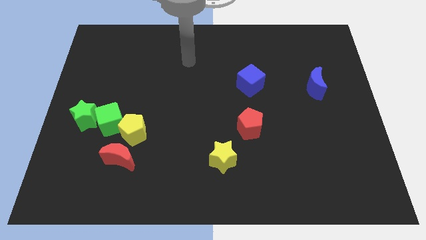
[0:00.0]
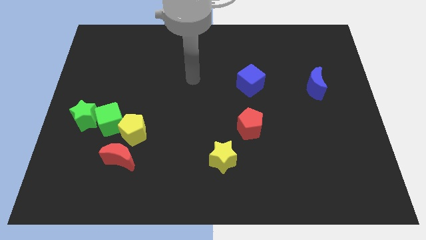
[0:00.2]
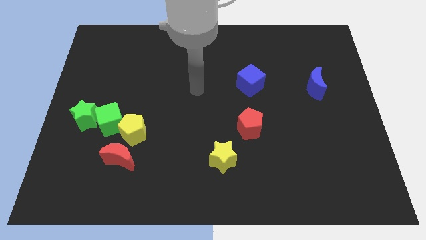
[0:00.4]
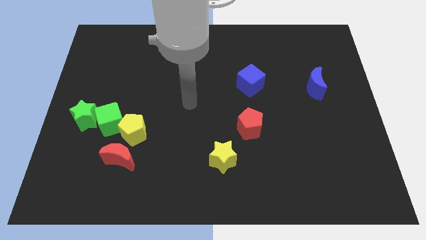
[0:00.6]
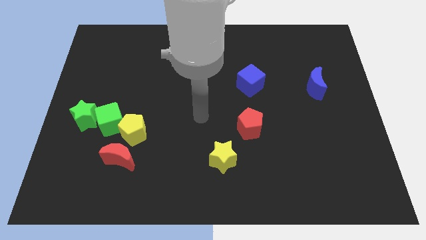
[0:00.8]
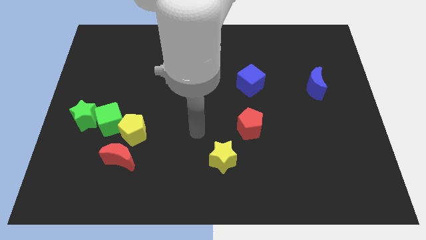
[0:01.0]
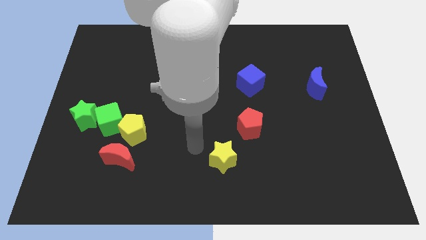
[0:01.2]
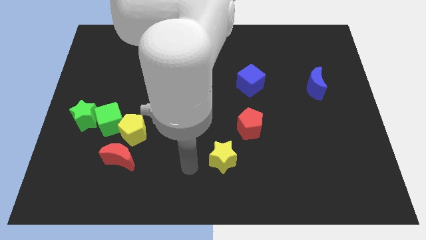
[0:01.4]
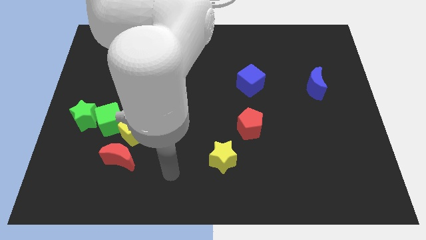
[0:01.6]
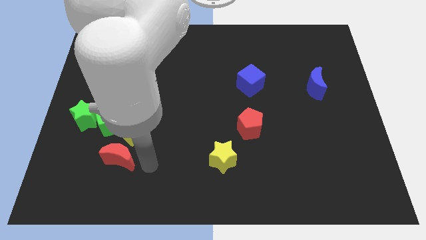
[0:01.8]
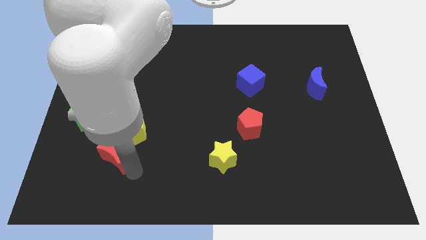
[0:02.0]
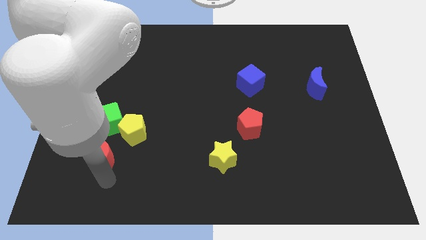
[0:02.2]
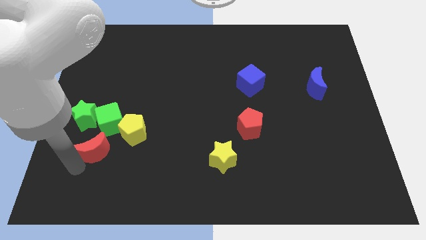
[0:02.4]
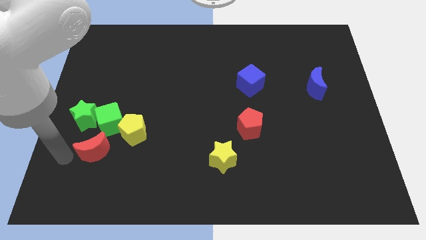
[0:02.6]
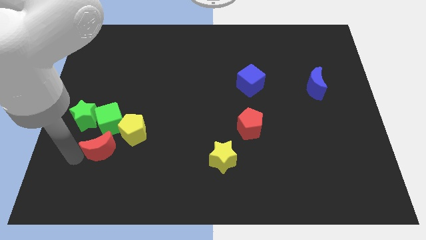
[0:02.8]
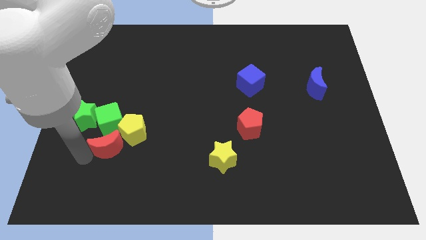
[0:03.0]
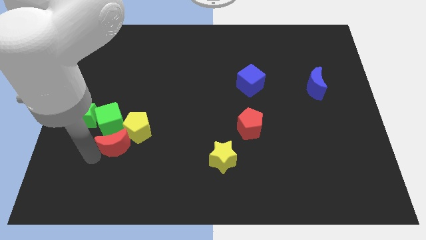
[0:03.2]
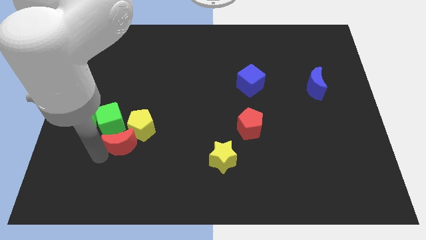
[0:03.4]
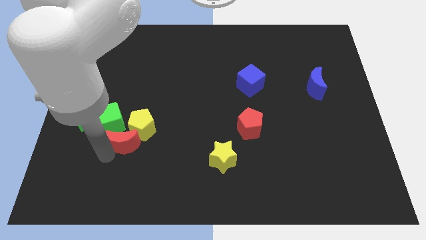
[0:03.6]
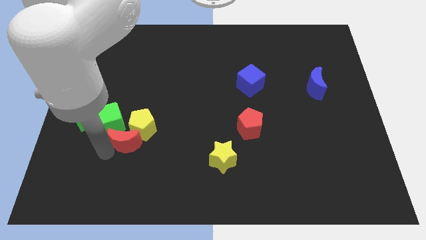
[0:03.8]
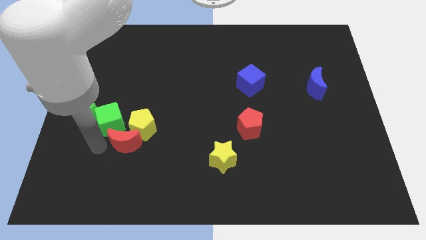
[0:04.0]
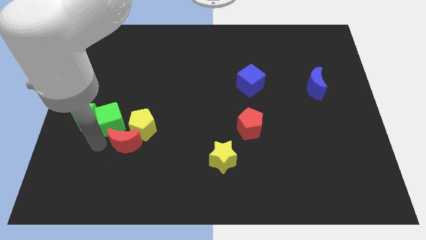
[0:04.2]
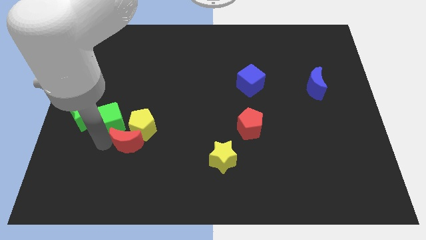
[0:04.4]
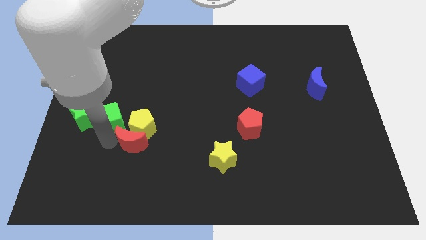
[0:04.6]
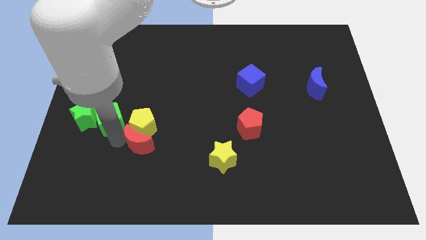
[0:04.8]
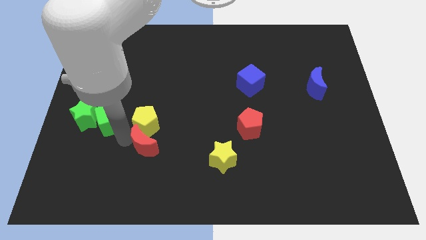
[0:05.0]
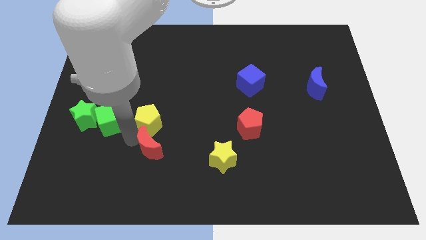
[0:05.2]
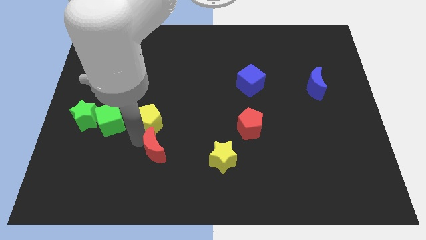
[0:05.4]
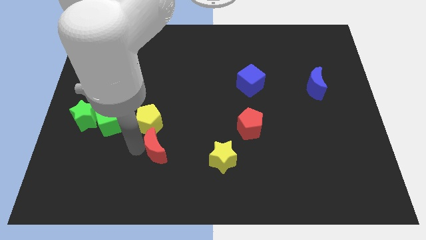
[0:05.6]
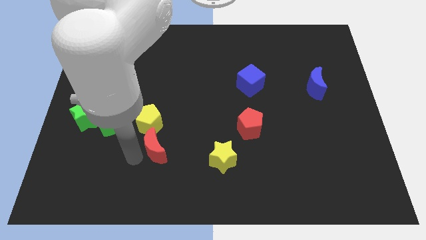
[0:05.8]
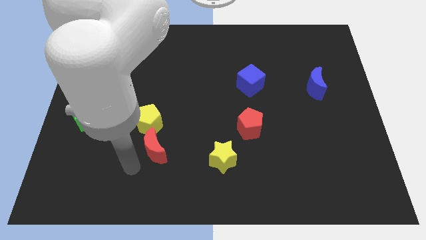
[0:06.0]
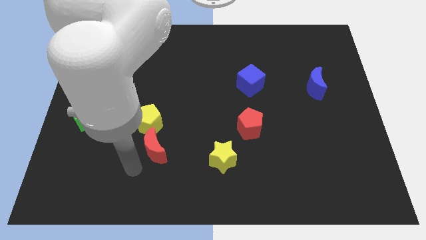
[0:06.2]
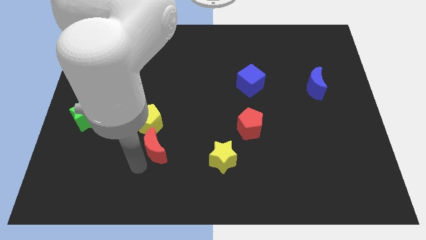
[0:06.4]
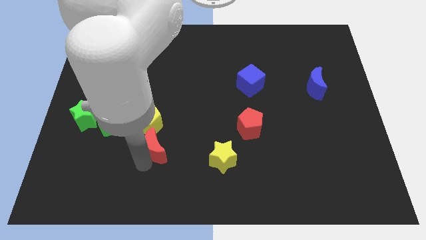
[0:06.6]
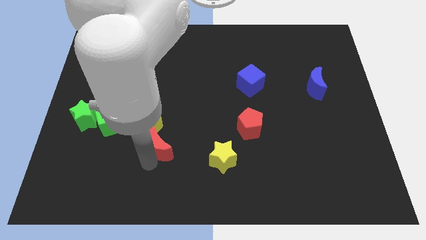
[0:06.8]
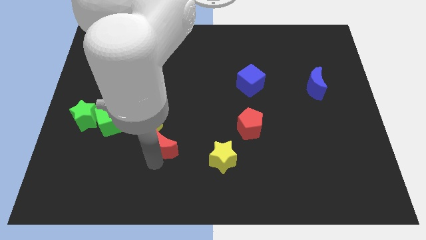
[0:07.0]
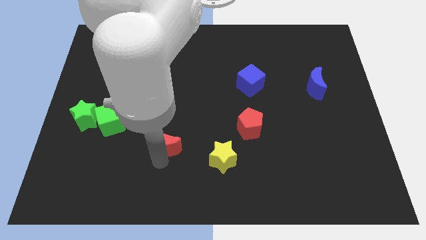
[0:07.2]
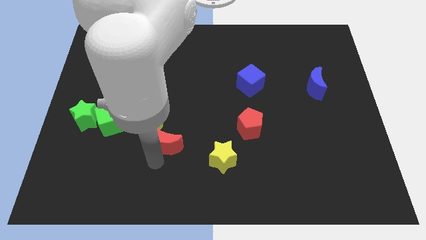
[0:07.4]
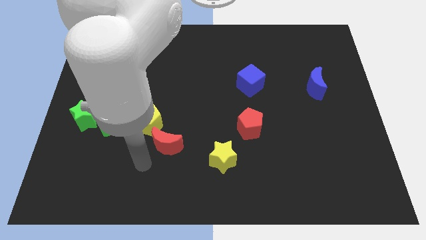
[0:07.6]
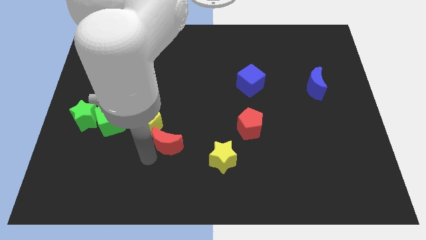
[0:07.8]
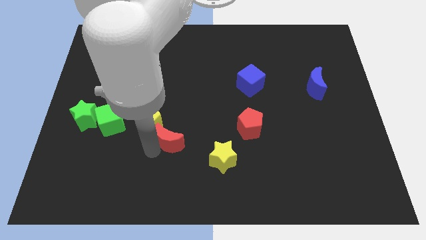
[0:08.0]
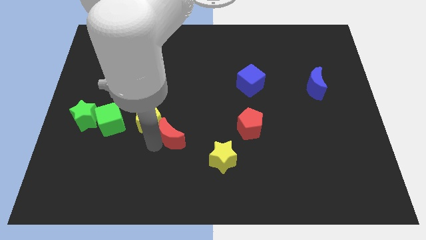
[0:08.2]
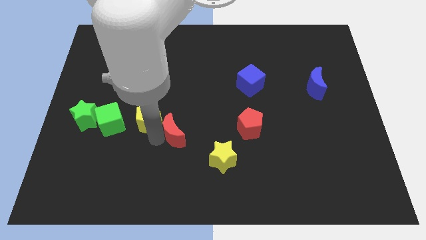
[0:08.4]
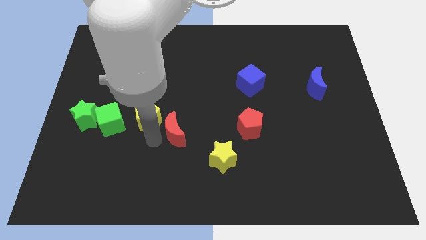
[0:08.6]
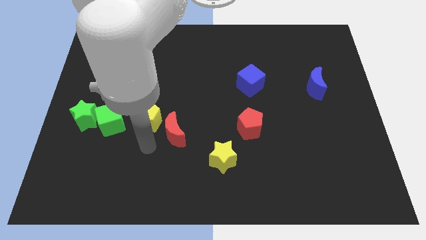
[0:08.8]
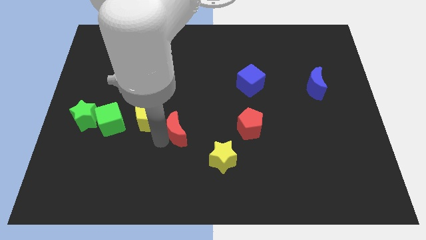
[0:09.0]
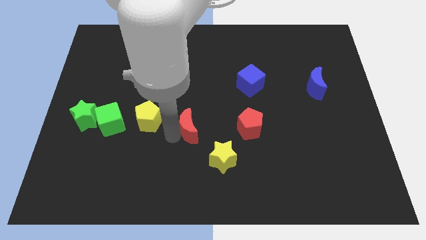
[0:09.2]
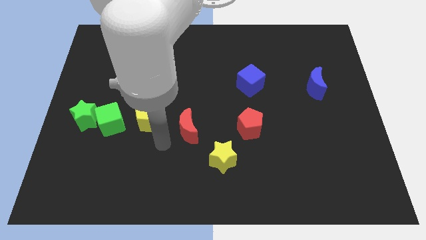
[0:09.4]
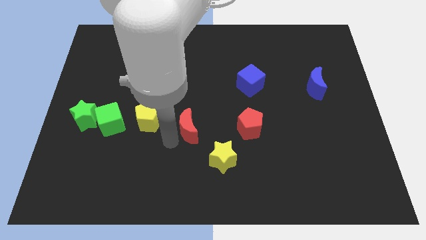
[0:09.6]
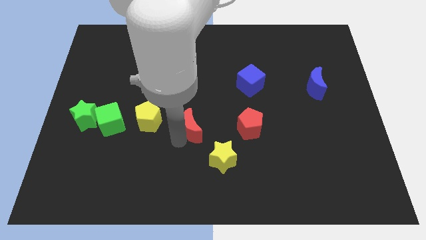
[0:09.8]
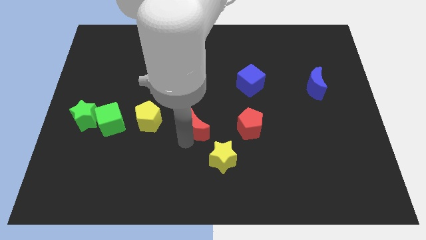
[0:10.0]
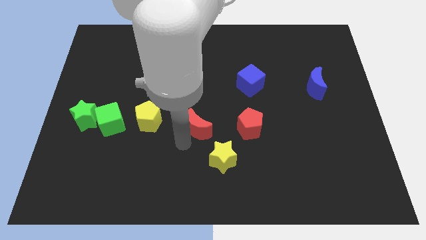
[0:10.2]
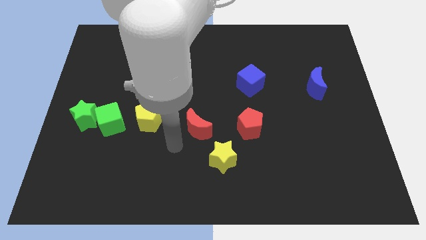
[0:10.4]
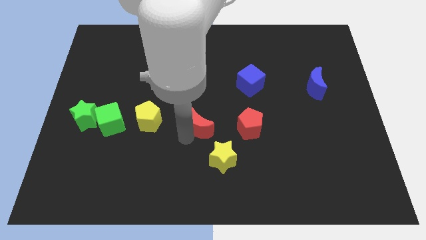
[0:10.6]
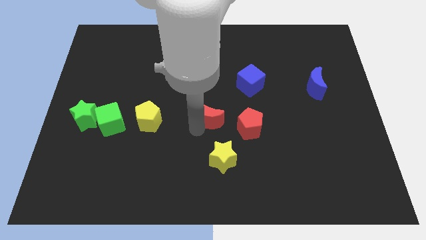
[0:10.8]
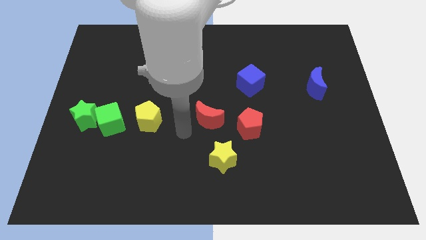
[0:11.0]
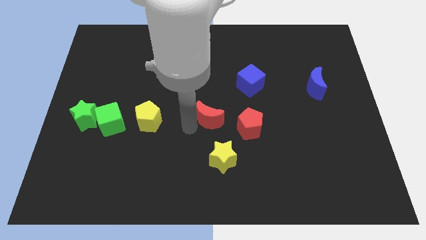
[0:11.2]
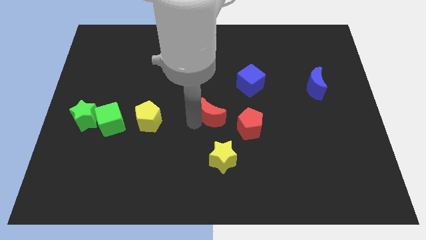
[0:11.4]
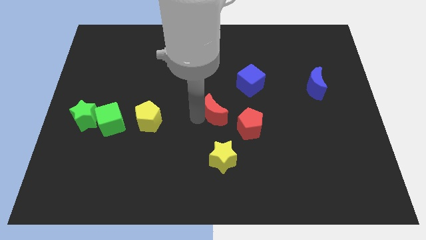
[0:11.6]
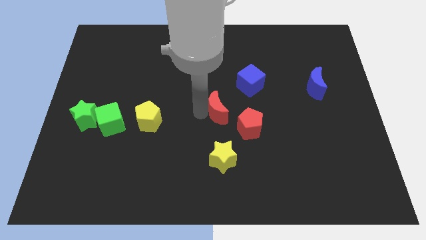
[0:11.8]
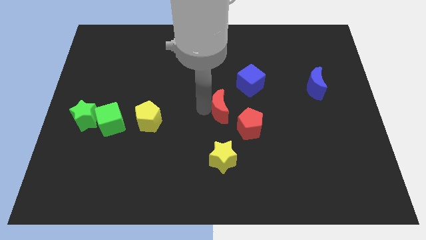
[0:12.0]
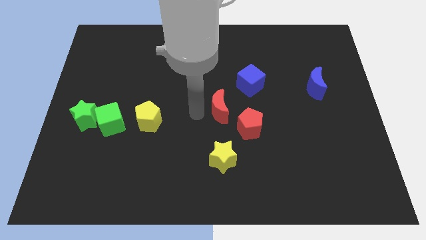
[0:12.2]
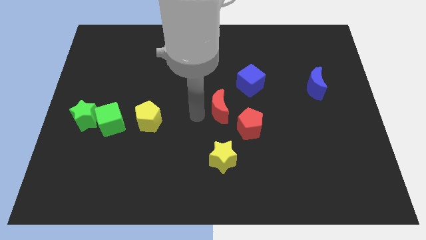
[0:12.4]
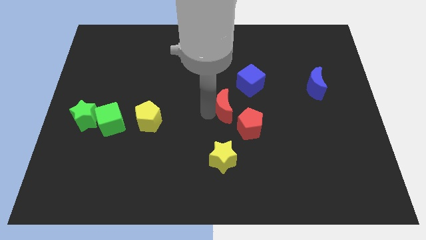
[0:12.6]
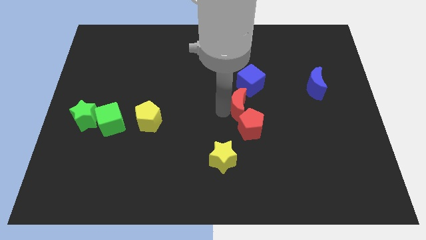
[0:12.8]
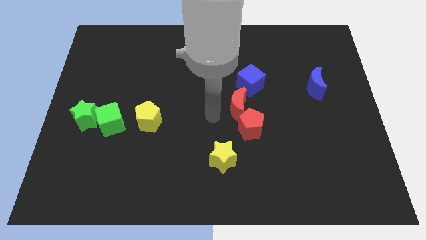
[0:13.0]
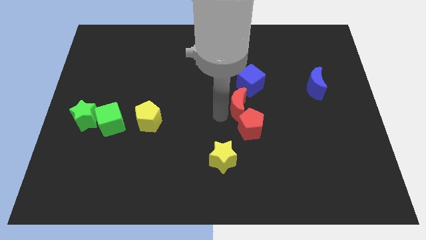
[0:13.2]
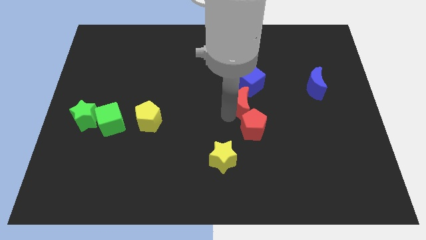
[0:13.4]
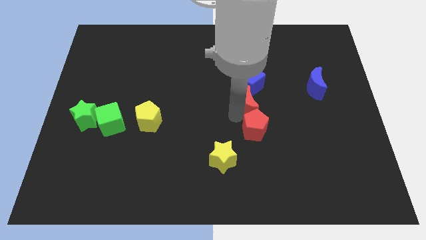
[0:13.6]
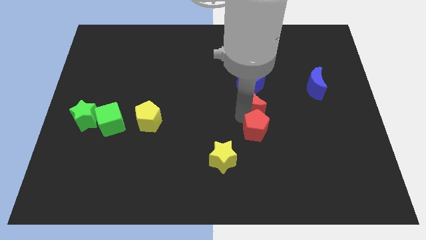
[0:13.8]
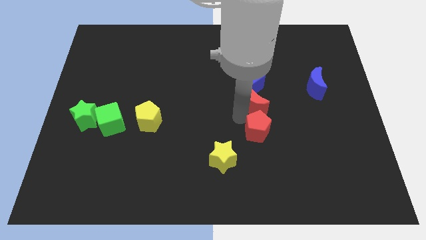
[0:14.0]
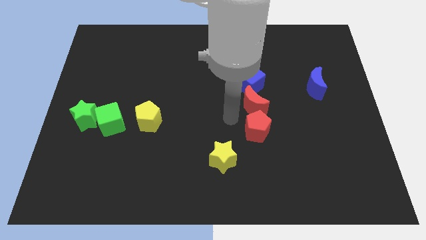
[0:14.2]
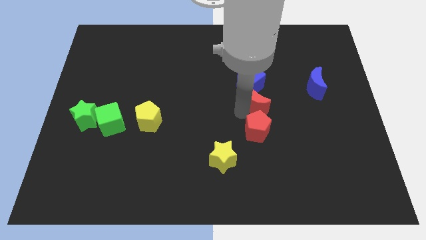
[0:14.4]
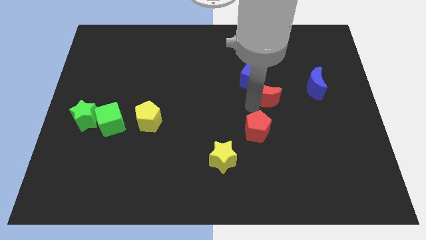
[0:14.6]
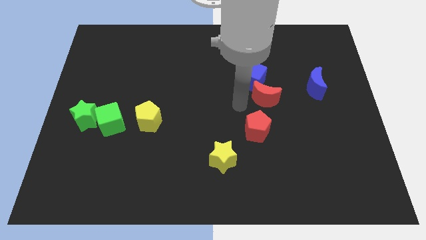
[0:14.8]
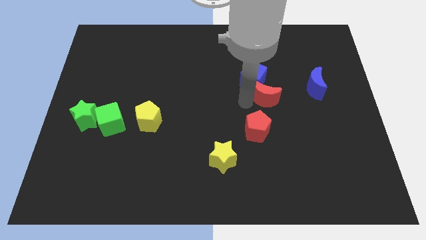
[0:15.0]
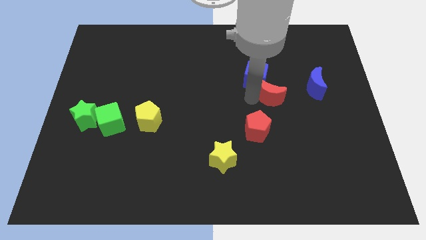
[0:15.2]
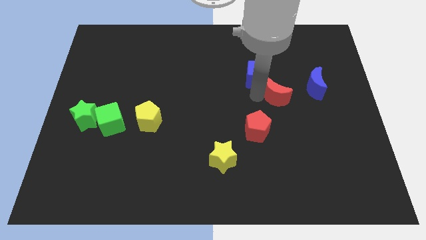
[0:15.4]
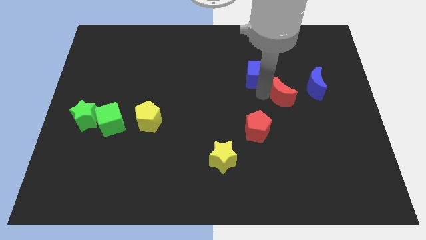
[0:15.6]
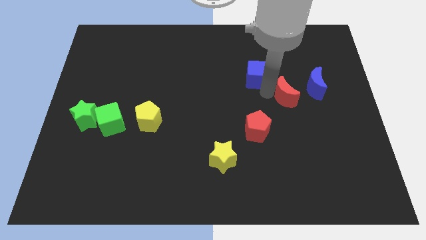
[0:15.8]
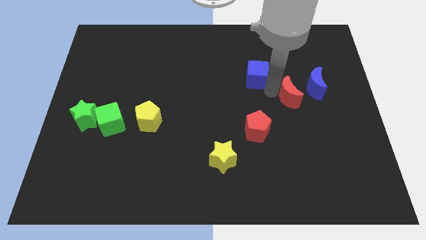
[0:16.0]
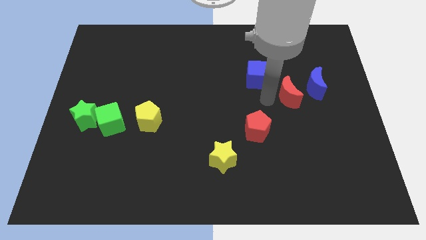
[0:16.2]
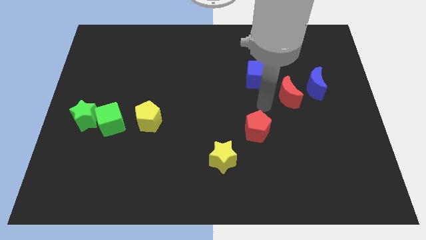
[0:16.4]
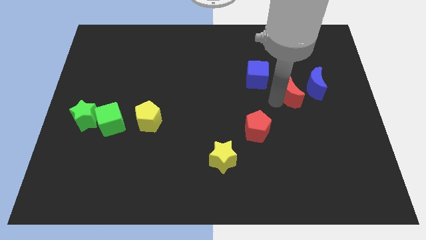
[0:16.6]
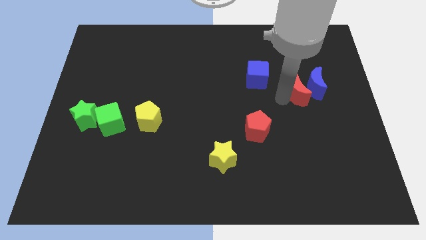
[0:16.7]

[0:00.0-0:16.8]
move the red moon next to the blue moon
